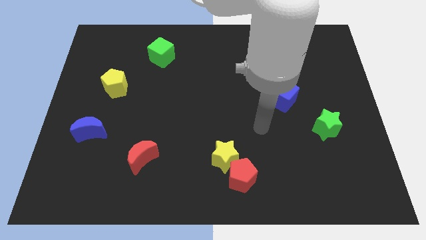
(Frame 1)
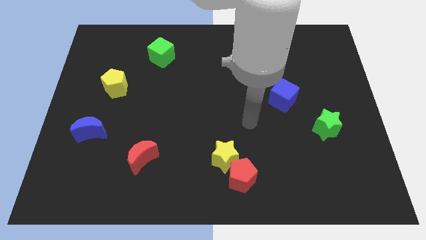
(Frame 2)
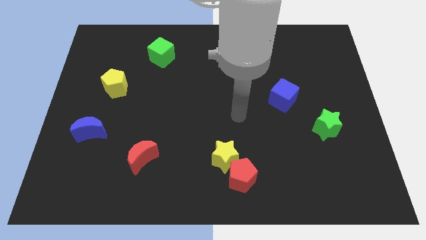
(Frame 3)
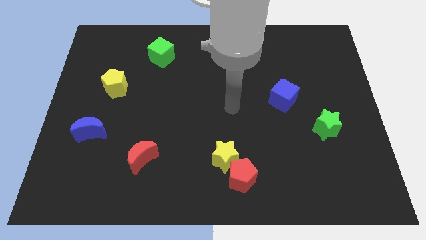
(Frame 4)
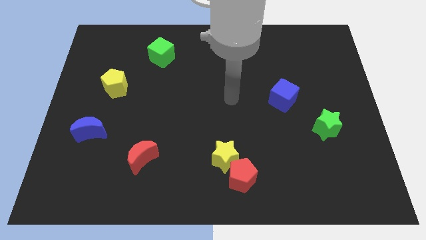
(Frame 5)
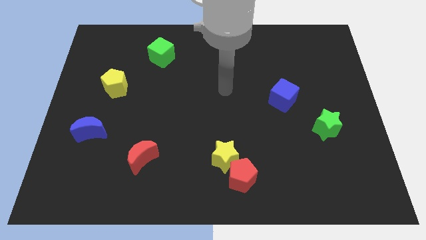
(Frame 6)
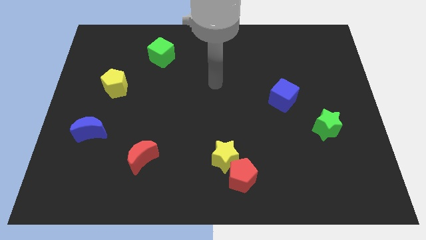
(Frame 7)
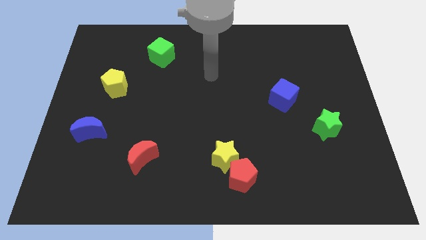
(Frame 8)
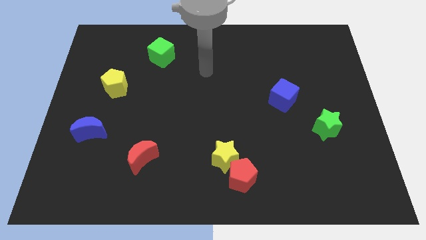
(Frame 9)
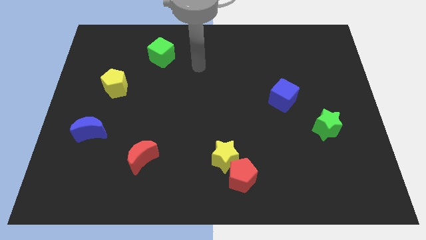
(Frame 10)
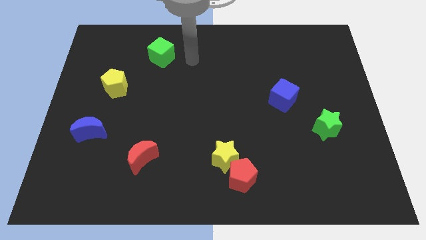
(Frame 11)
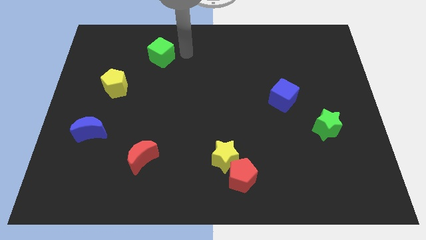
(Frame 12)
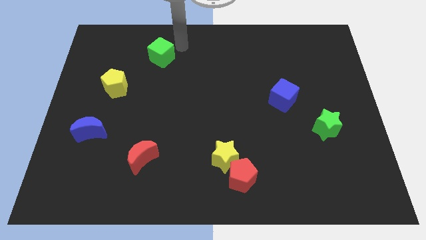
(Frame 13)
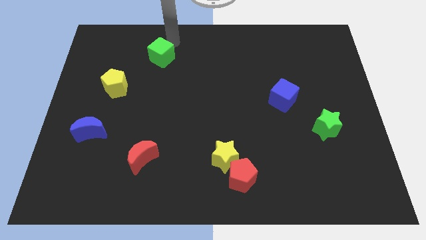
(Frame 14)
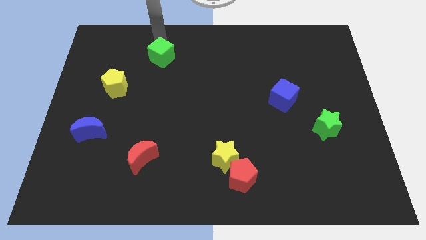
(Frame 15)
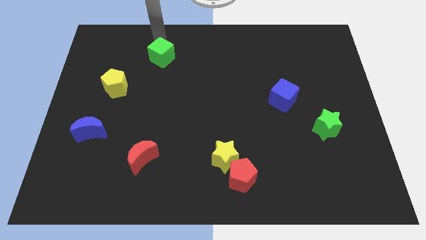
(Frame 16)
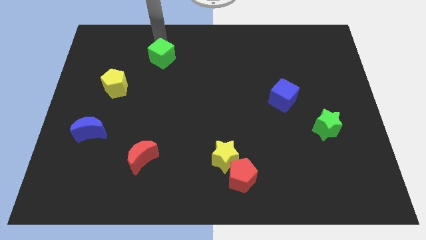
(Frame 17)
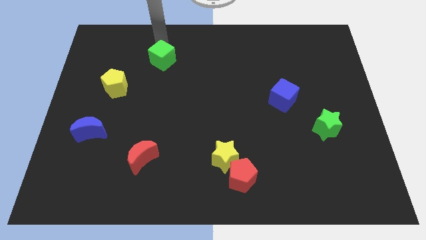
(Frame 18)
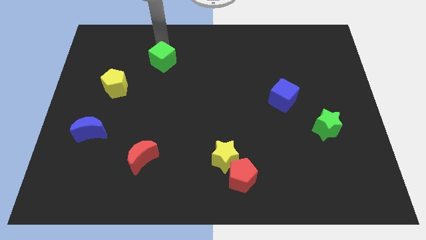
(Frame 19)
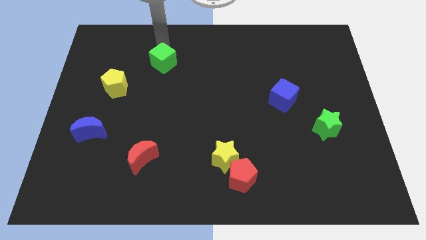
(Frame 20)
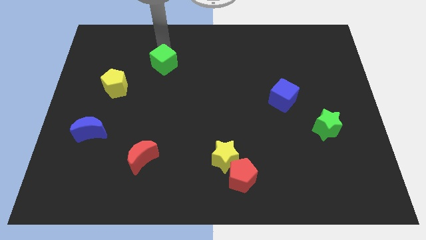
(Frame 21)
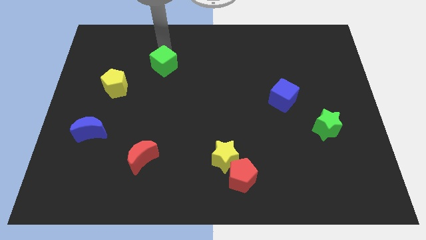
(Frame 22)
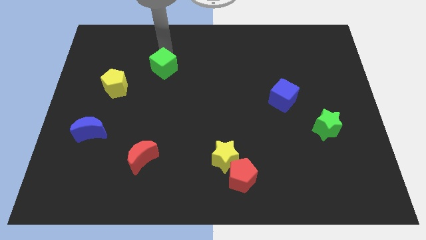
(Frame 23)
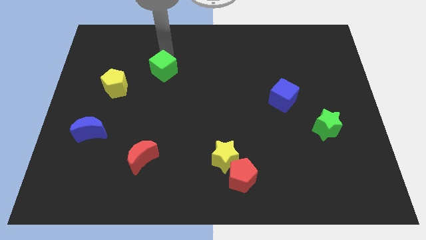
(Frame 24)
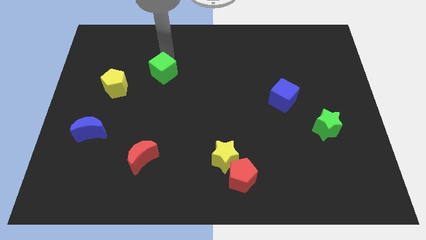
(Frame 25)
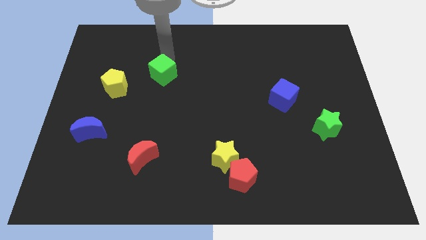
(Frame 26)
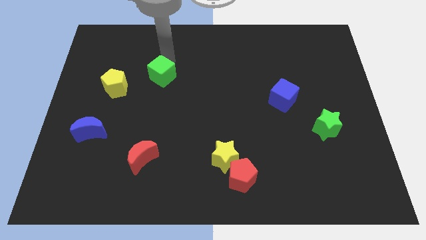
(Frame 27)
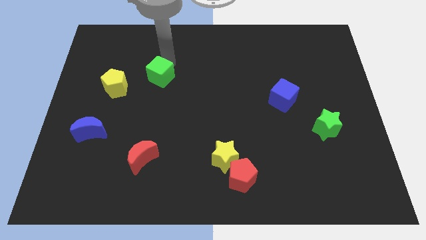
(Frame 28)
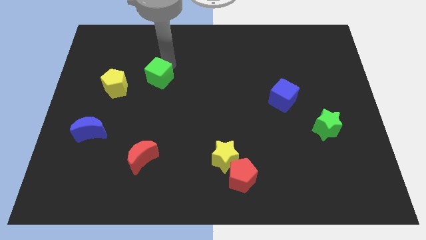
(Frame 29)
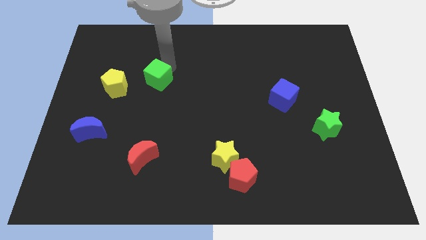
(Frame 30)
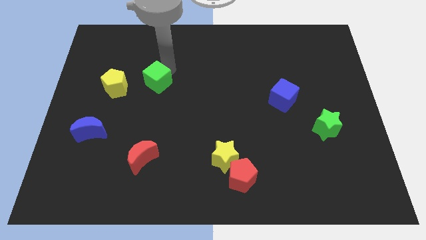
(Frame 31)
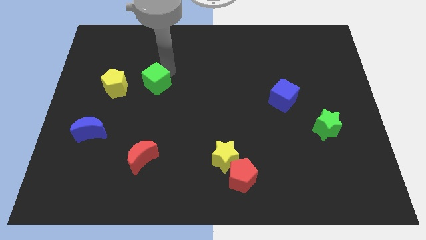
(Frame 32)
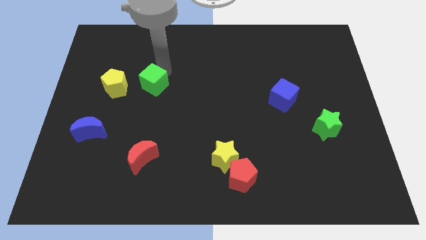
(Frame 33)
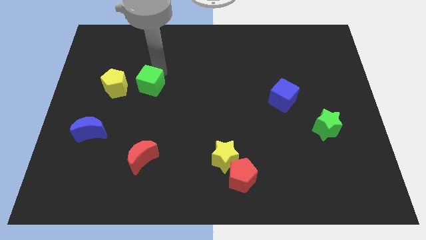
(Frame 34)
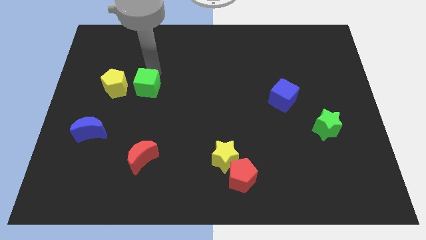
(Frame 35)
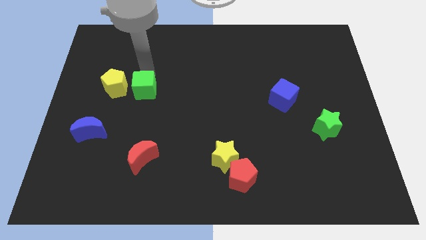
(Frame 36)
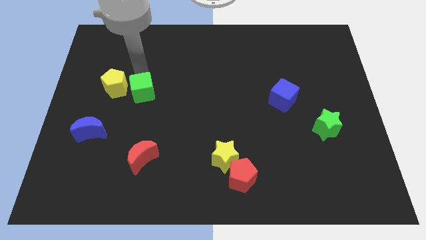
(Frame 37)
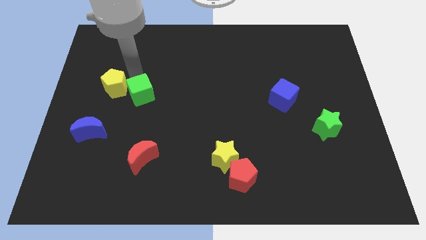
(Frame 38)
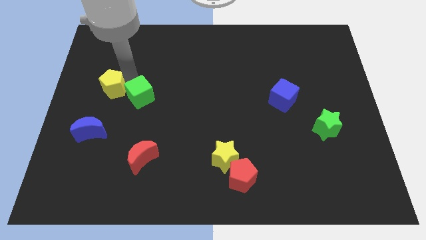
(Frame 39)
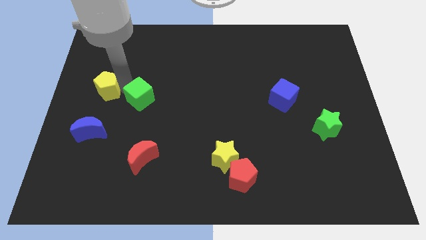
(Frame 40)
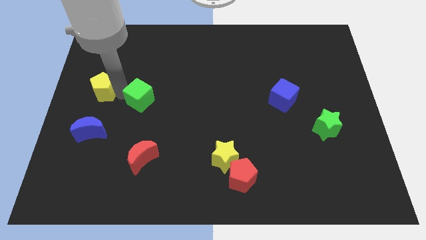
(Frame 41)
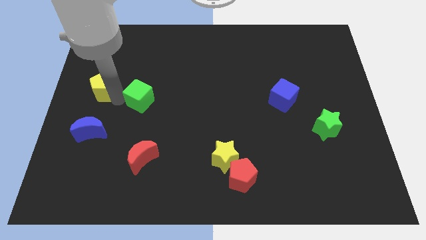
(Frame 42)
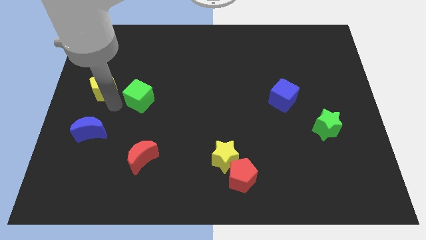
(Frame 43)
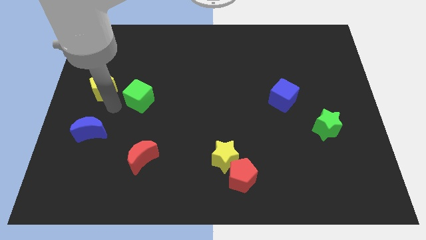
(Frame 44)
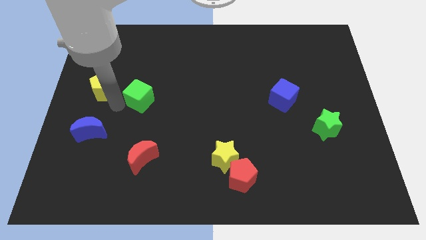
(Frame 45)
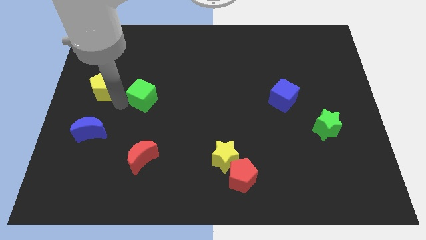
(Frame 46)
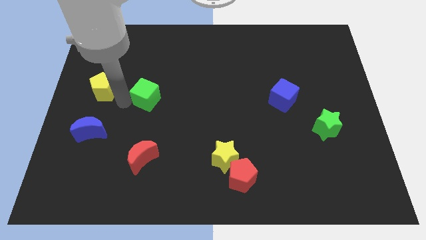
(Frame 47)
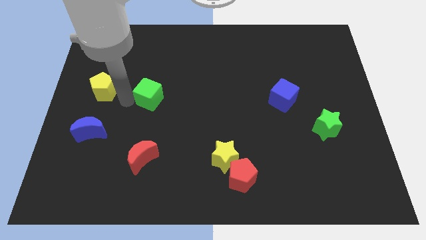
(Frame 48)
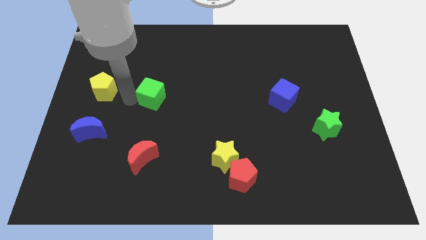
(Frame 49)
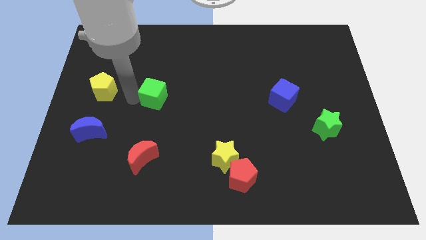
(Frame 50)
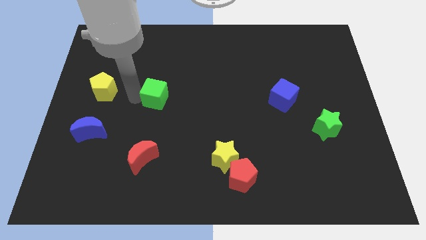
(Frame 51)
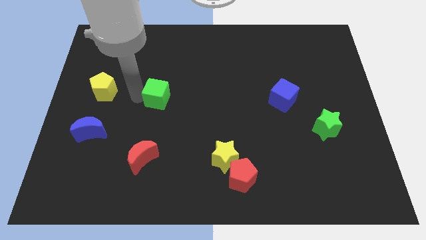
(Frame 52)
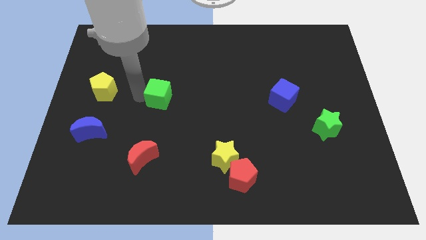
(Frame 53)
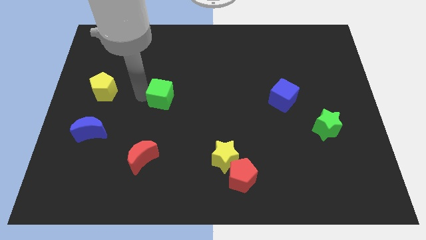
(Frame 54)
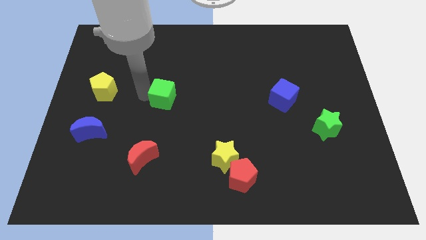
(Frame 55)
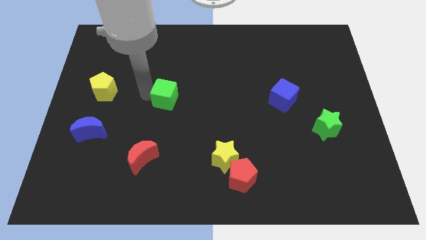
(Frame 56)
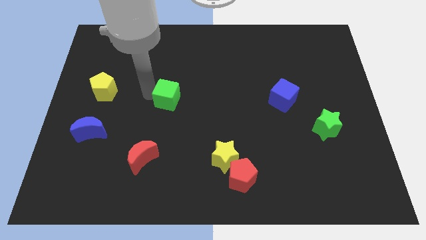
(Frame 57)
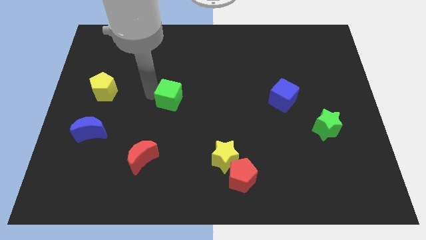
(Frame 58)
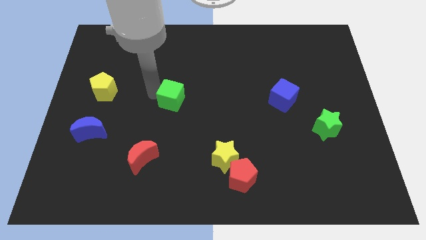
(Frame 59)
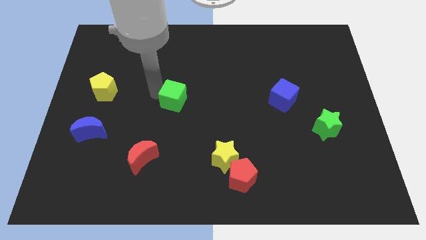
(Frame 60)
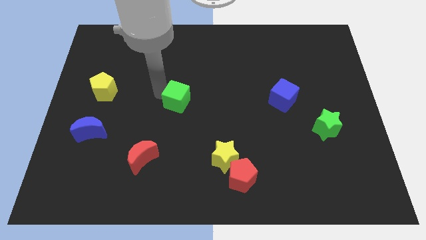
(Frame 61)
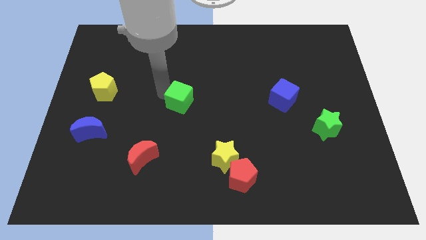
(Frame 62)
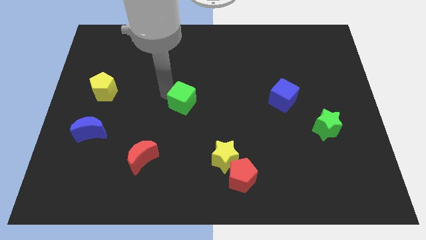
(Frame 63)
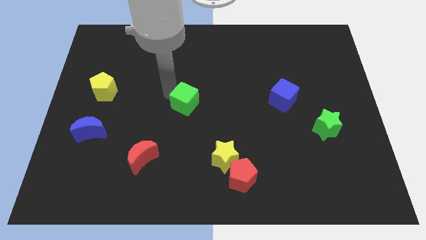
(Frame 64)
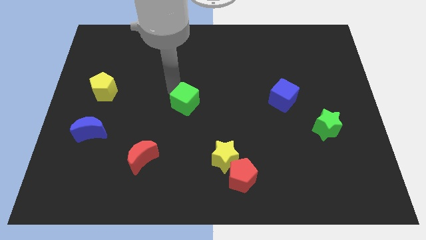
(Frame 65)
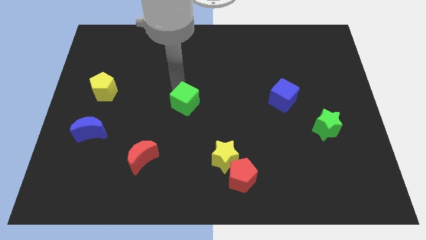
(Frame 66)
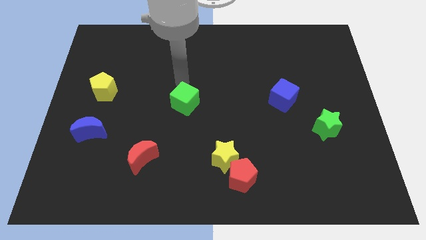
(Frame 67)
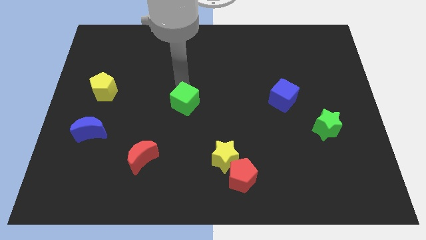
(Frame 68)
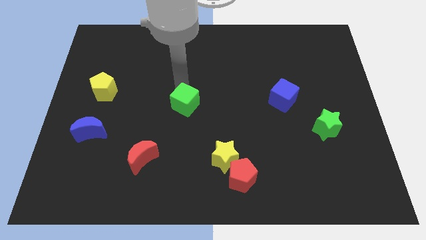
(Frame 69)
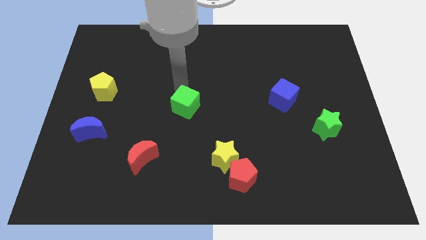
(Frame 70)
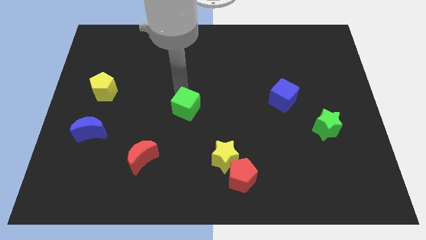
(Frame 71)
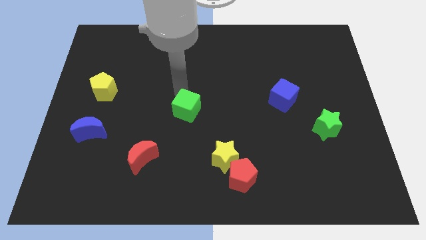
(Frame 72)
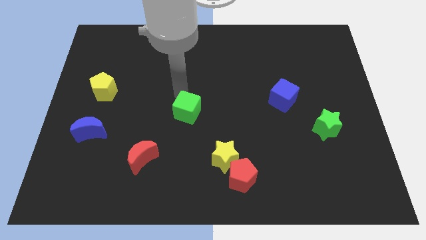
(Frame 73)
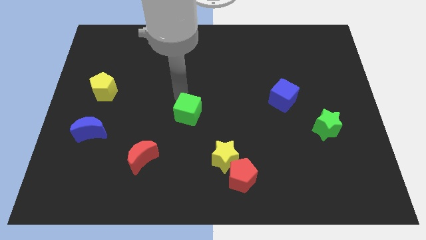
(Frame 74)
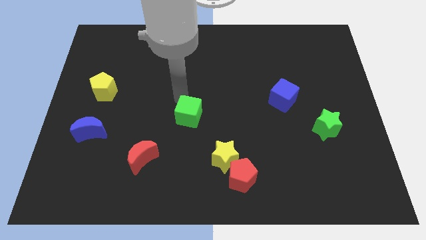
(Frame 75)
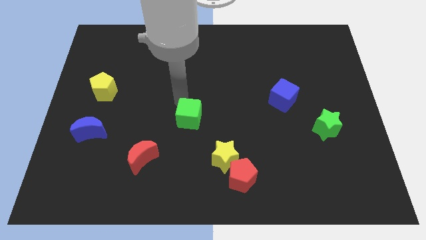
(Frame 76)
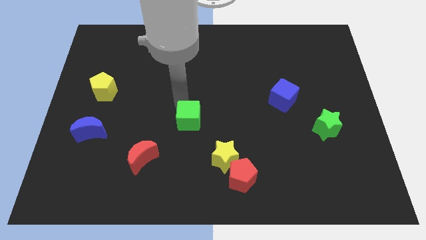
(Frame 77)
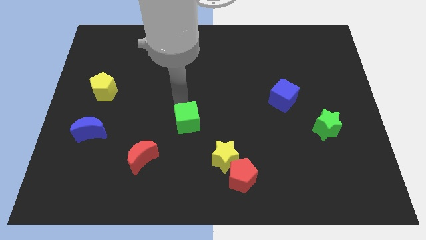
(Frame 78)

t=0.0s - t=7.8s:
slide the green cube diagonally up and to the left of the yellow star

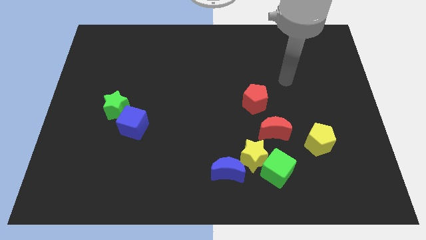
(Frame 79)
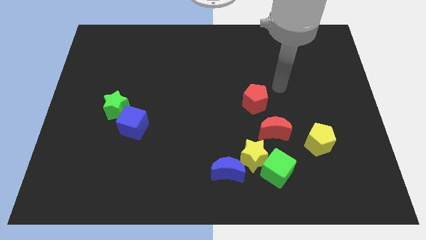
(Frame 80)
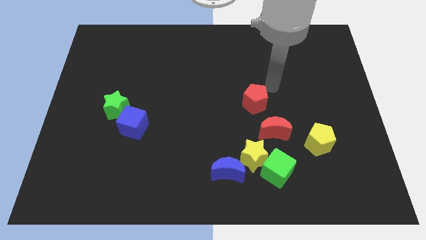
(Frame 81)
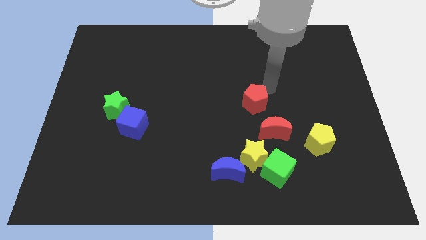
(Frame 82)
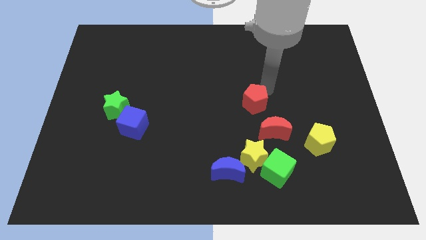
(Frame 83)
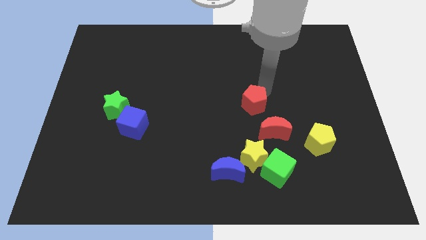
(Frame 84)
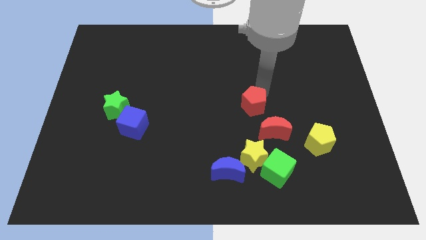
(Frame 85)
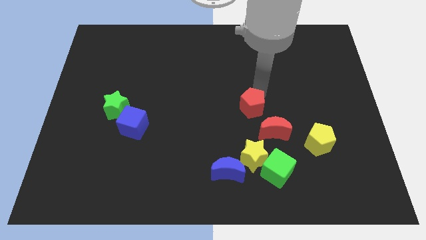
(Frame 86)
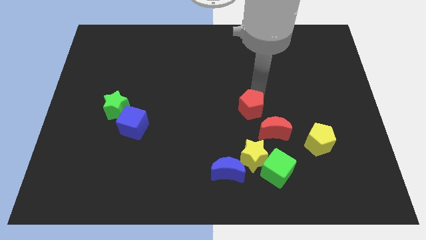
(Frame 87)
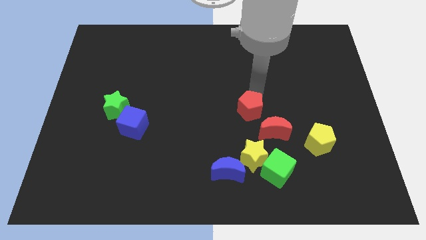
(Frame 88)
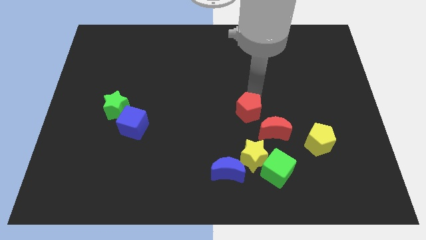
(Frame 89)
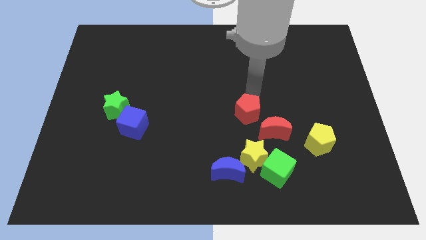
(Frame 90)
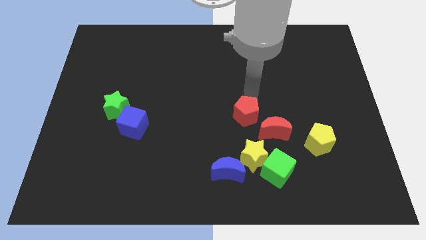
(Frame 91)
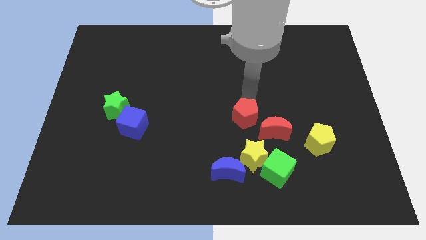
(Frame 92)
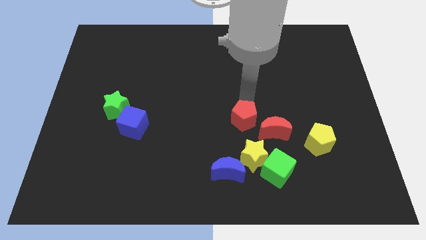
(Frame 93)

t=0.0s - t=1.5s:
move the red pentagon to the top of the blue moon
